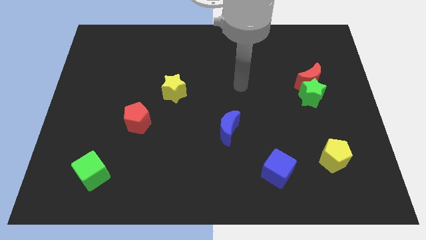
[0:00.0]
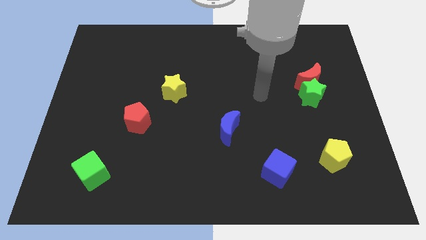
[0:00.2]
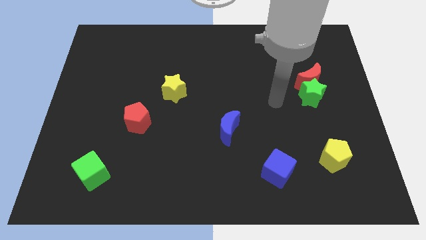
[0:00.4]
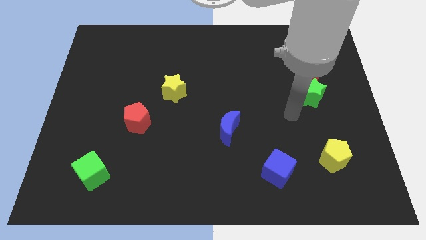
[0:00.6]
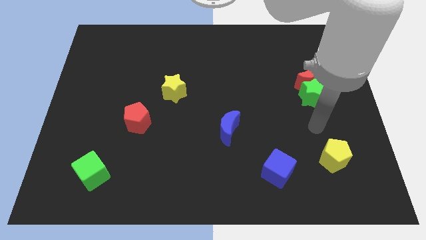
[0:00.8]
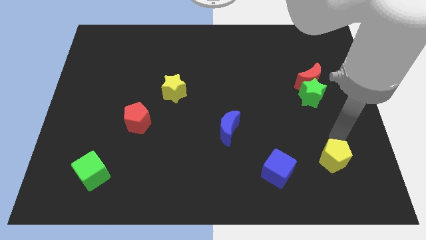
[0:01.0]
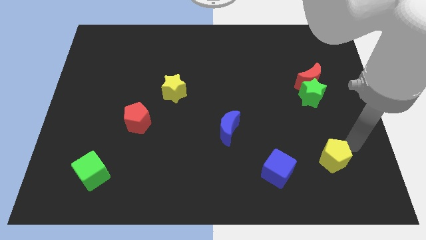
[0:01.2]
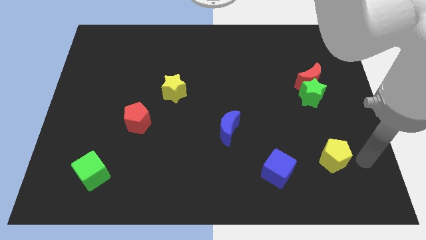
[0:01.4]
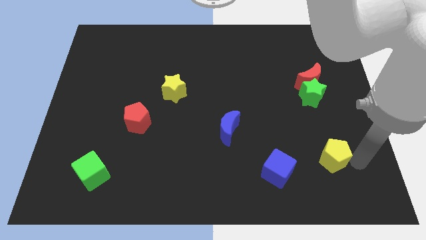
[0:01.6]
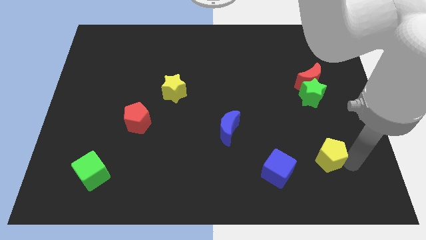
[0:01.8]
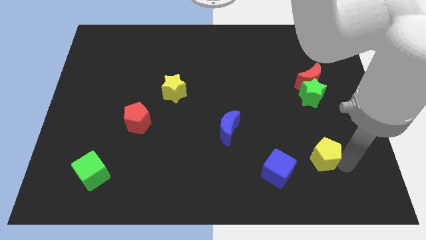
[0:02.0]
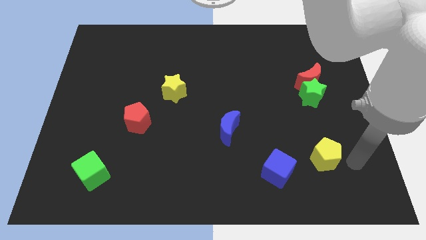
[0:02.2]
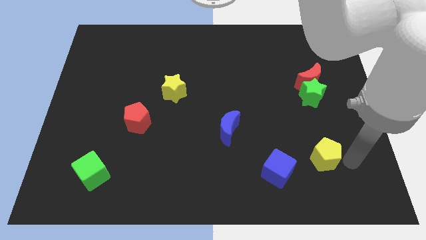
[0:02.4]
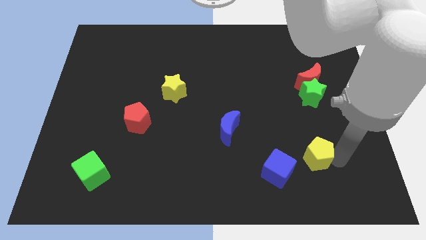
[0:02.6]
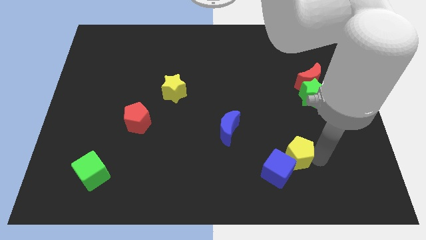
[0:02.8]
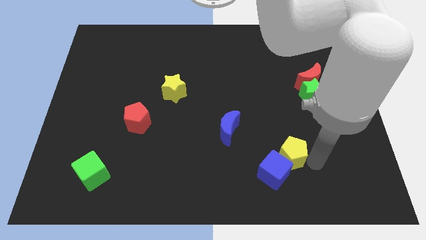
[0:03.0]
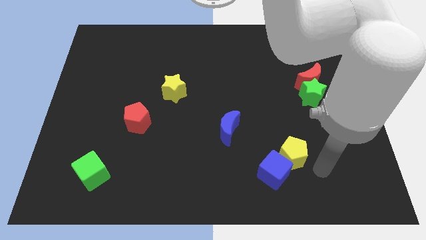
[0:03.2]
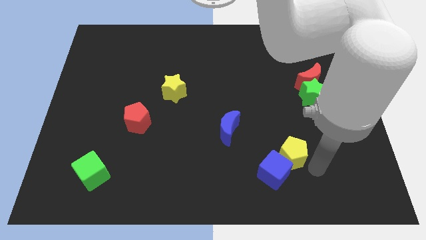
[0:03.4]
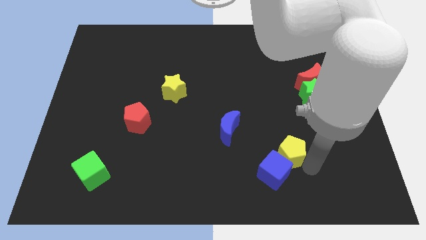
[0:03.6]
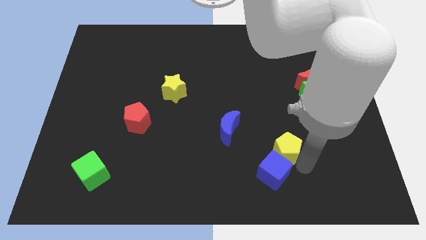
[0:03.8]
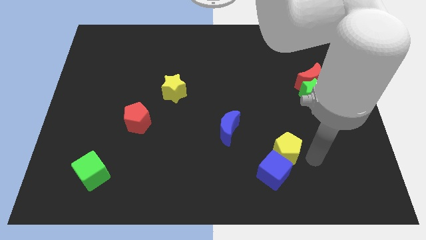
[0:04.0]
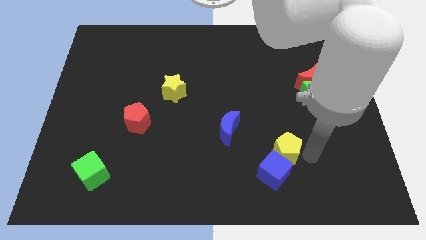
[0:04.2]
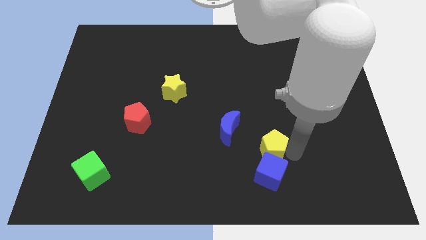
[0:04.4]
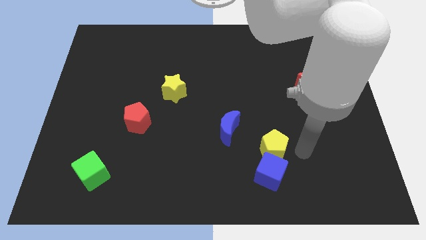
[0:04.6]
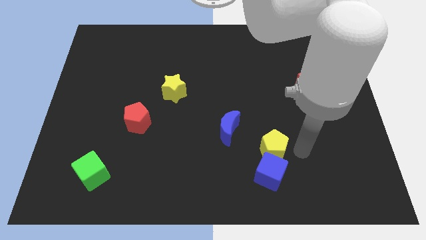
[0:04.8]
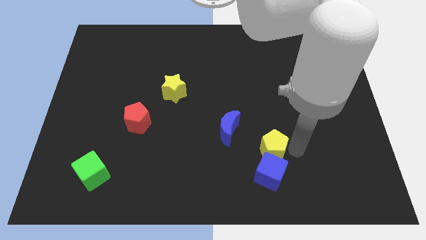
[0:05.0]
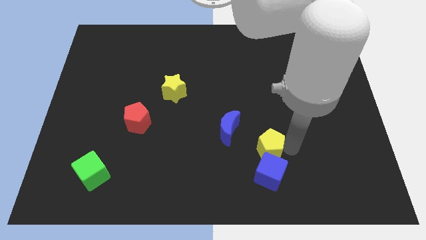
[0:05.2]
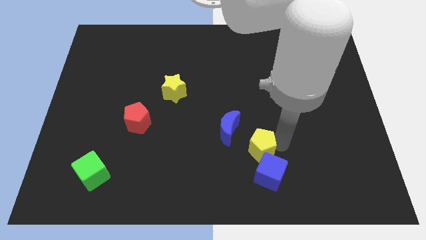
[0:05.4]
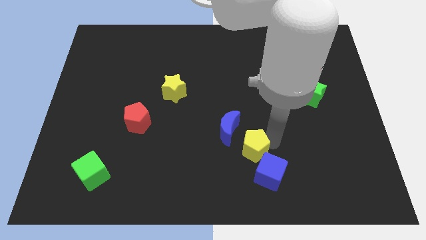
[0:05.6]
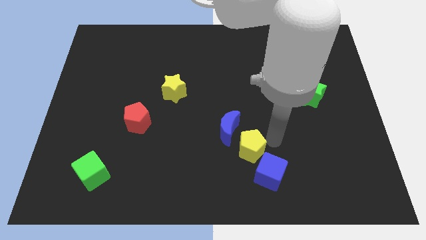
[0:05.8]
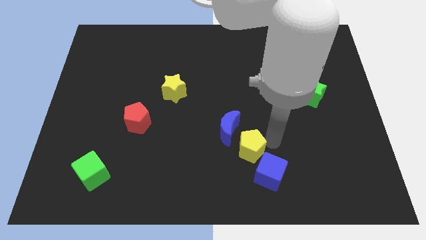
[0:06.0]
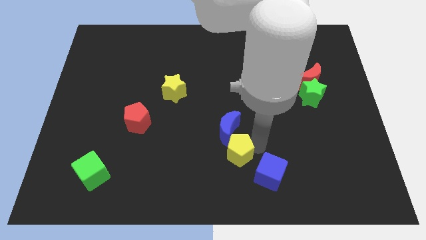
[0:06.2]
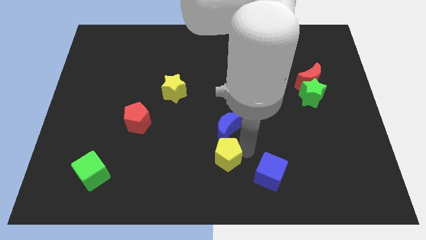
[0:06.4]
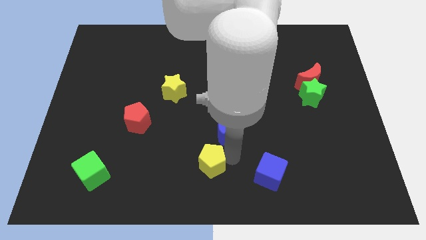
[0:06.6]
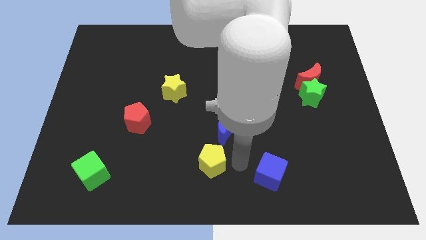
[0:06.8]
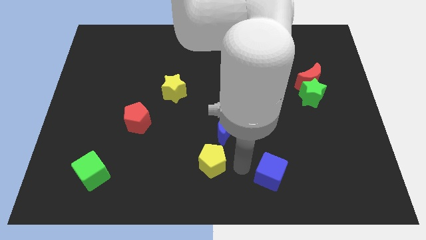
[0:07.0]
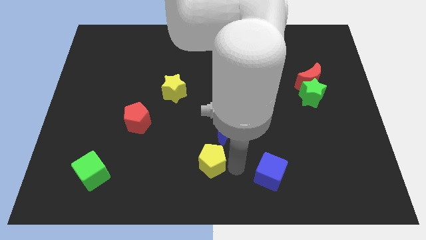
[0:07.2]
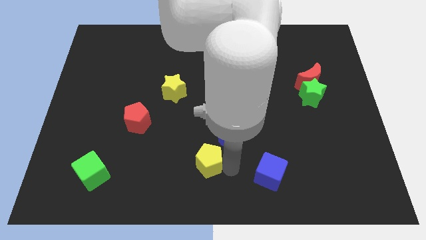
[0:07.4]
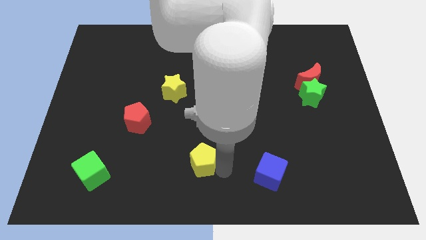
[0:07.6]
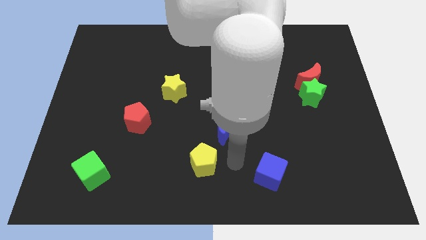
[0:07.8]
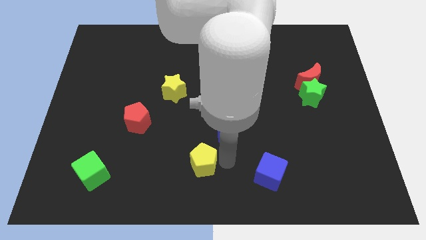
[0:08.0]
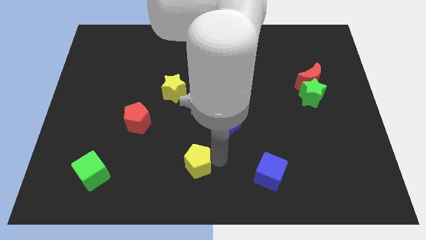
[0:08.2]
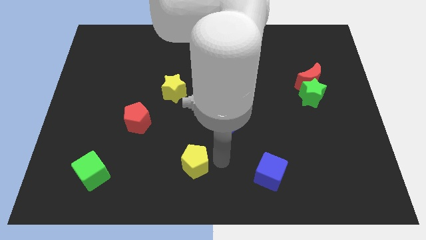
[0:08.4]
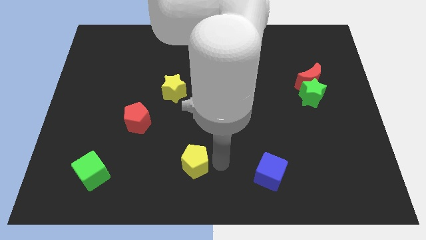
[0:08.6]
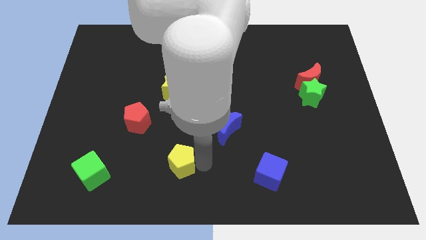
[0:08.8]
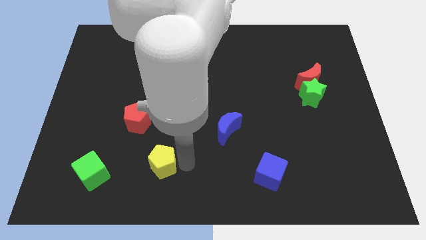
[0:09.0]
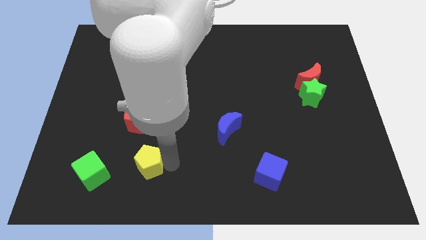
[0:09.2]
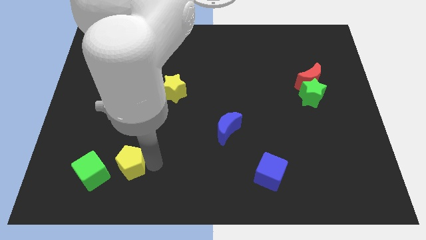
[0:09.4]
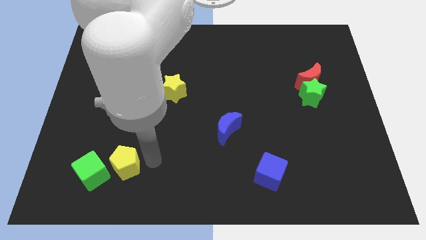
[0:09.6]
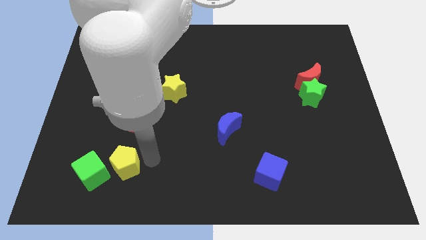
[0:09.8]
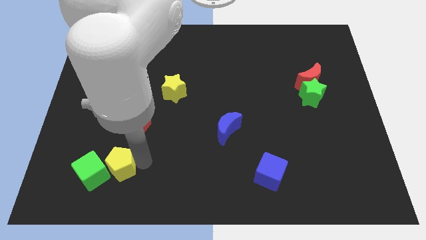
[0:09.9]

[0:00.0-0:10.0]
move the yellow pentagon to the green cube

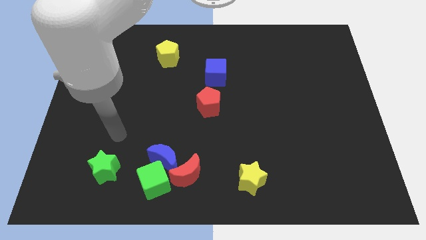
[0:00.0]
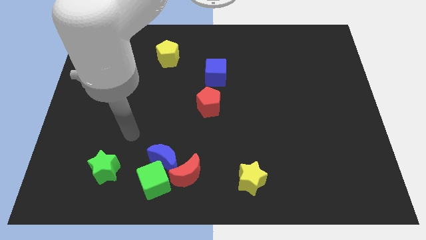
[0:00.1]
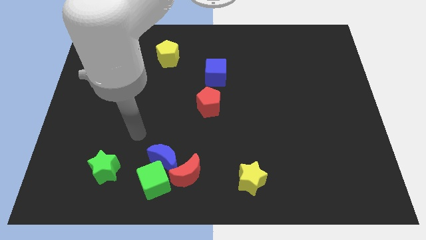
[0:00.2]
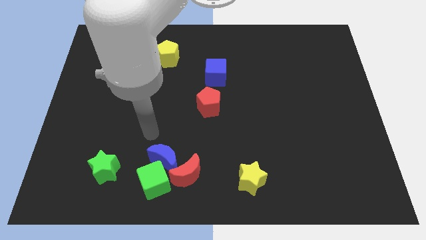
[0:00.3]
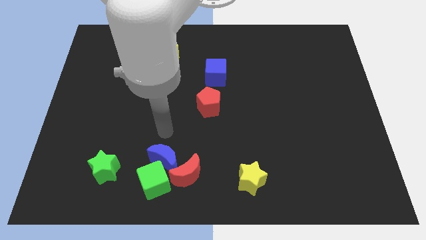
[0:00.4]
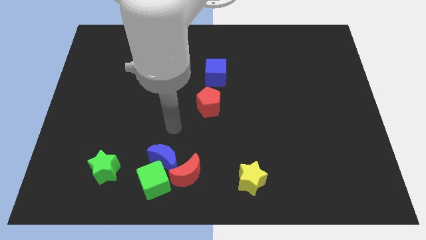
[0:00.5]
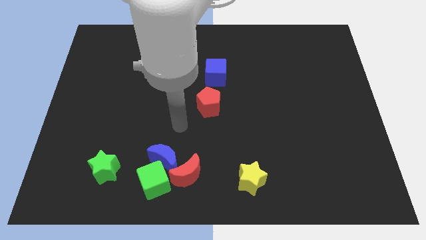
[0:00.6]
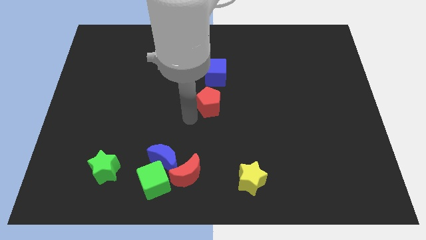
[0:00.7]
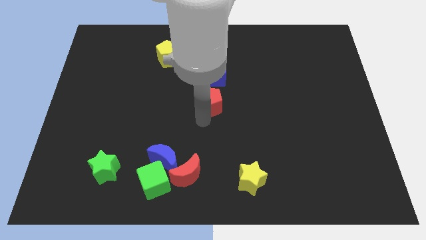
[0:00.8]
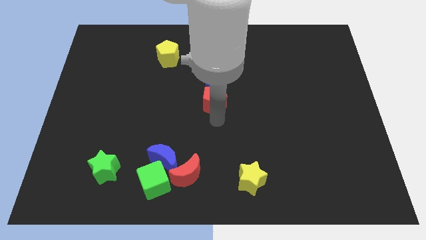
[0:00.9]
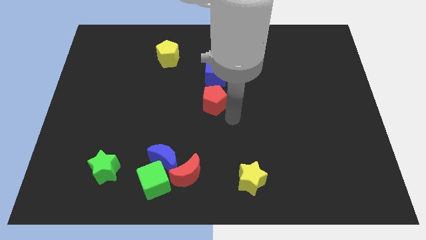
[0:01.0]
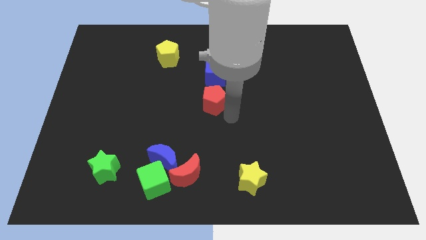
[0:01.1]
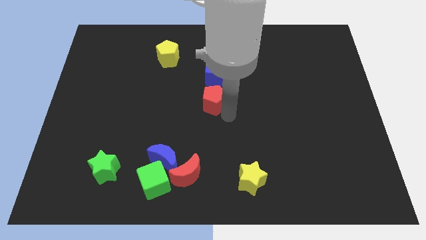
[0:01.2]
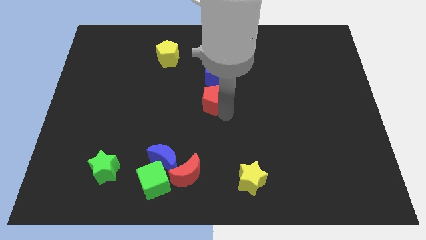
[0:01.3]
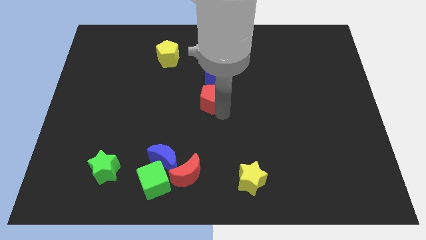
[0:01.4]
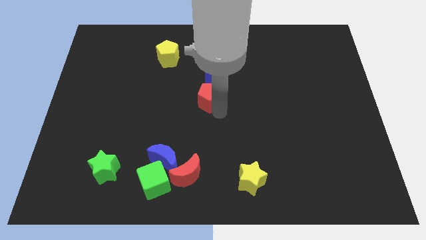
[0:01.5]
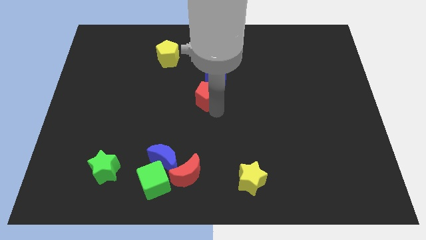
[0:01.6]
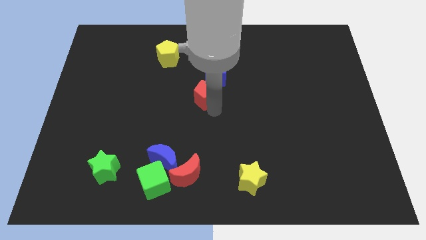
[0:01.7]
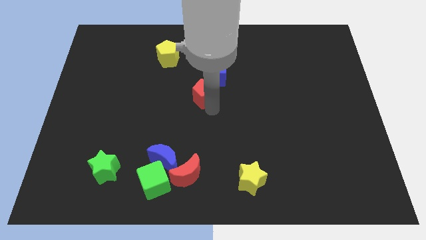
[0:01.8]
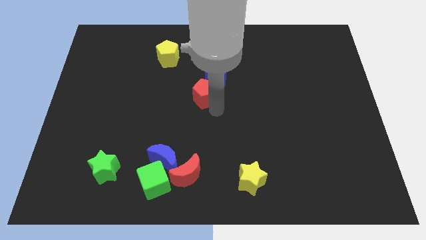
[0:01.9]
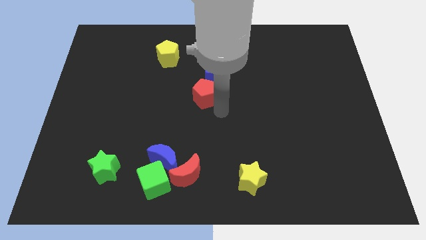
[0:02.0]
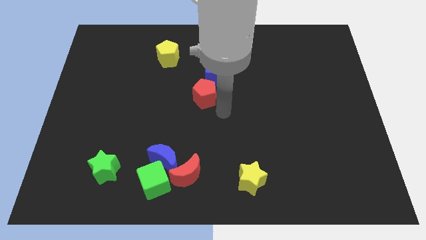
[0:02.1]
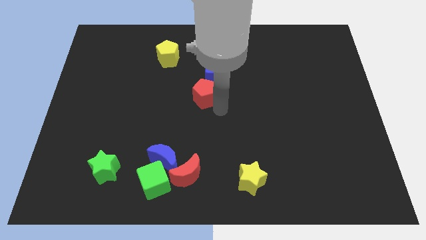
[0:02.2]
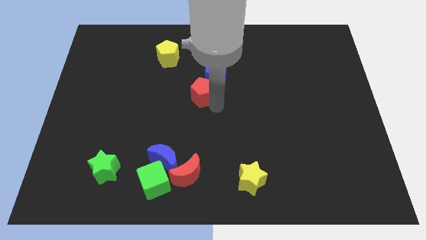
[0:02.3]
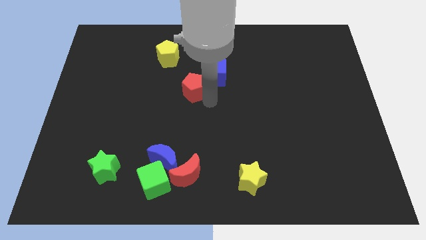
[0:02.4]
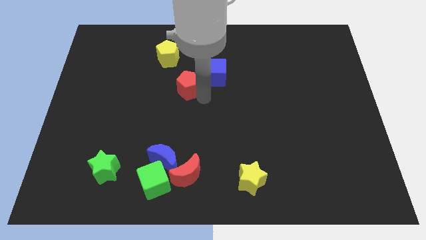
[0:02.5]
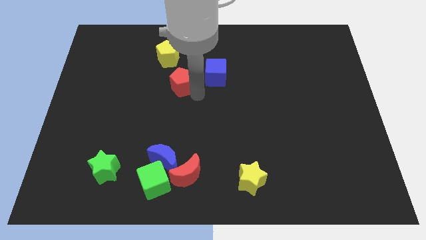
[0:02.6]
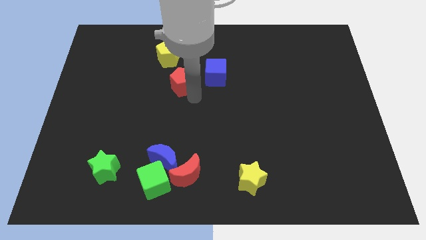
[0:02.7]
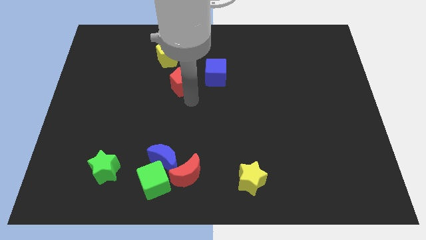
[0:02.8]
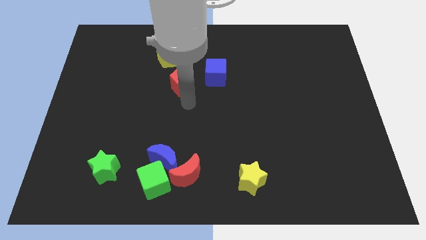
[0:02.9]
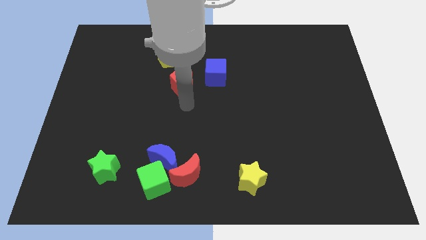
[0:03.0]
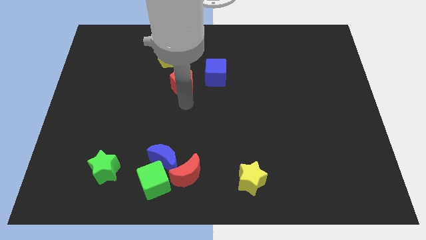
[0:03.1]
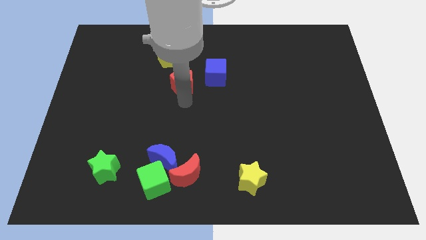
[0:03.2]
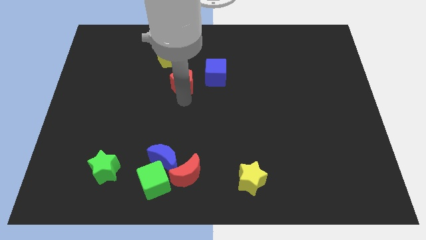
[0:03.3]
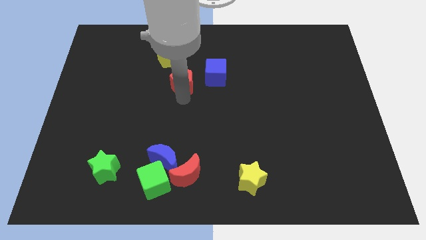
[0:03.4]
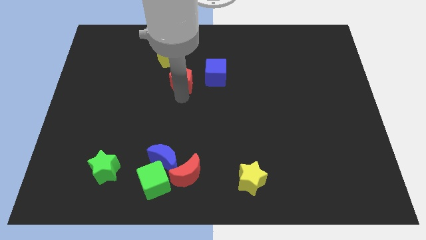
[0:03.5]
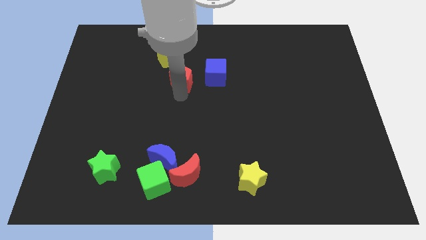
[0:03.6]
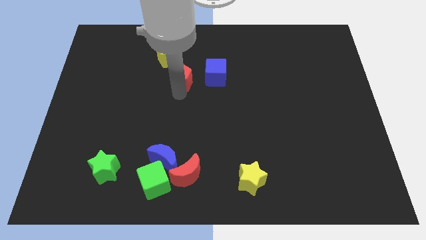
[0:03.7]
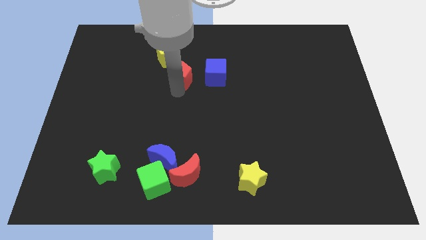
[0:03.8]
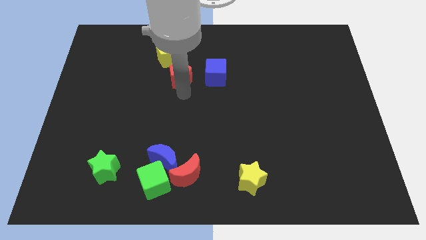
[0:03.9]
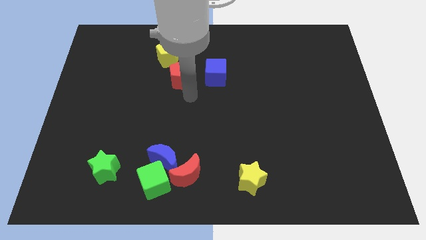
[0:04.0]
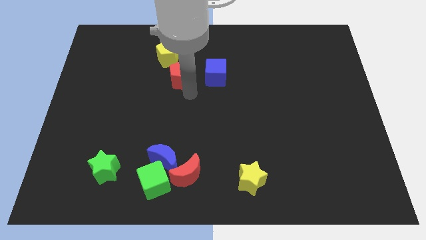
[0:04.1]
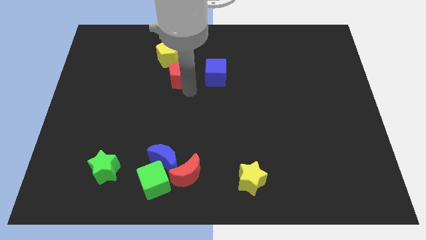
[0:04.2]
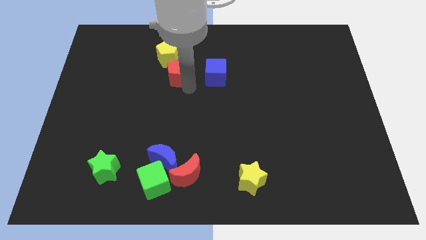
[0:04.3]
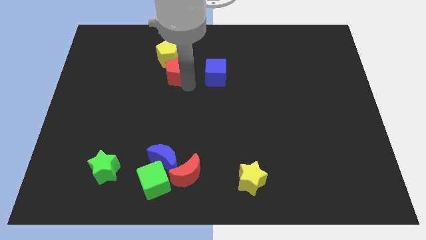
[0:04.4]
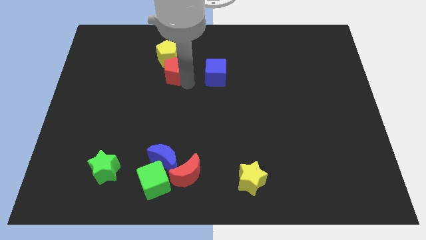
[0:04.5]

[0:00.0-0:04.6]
slide the red pentagon close to the yellow pentagon
